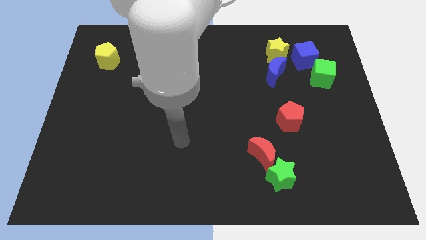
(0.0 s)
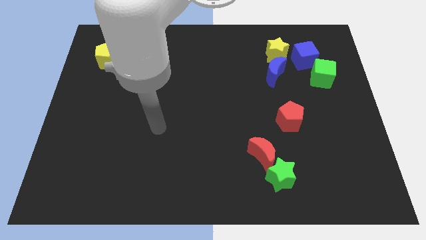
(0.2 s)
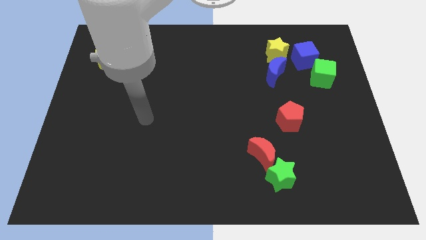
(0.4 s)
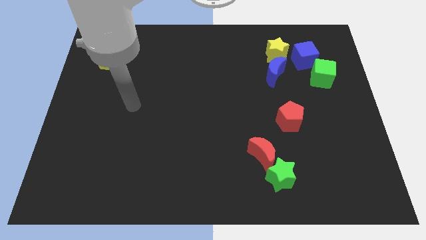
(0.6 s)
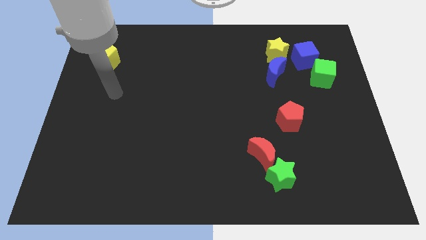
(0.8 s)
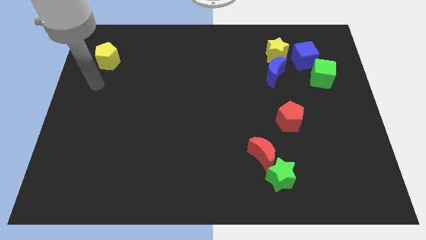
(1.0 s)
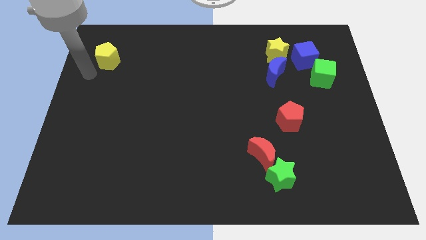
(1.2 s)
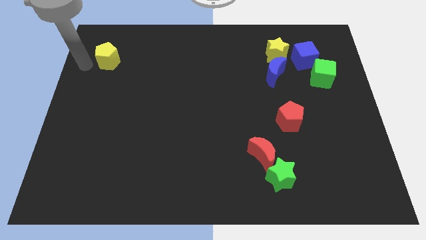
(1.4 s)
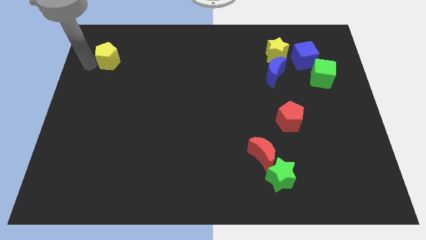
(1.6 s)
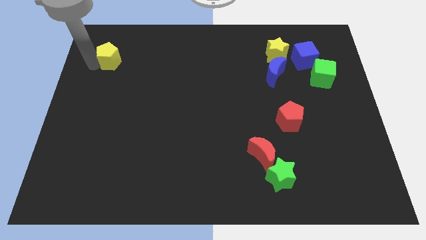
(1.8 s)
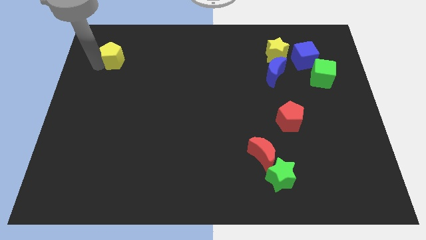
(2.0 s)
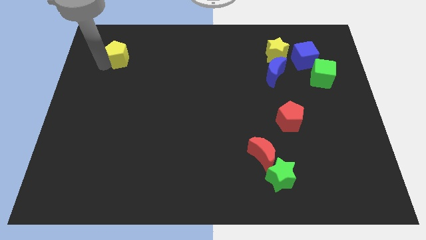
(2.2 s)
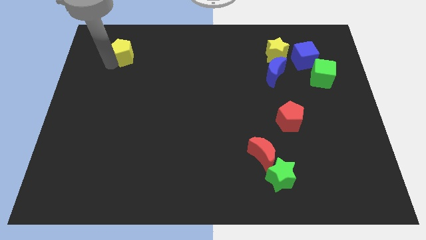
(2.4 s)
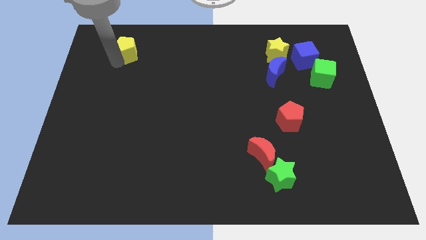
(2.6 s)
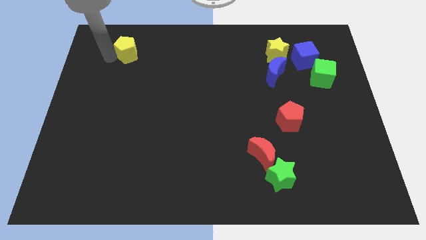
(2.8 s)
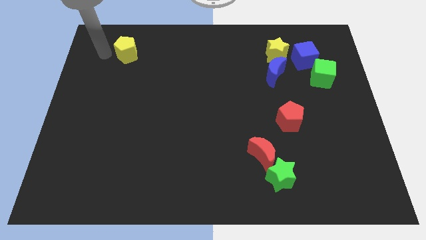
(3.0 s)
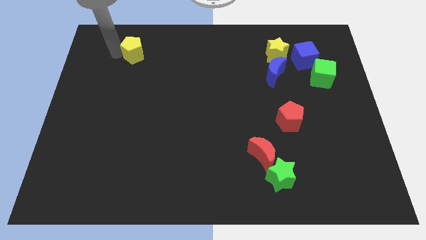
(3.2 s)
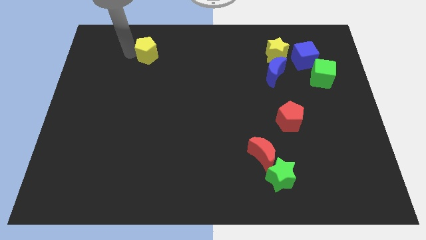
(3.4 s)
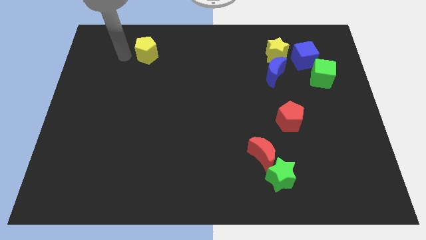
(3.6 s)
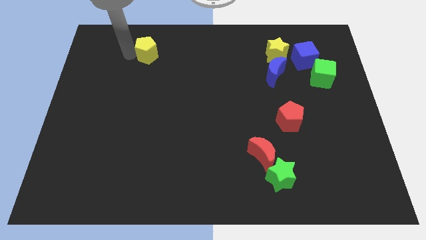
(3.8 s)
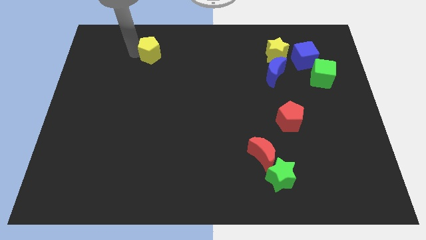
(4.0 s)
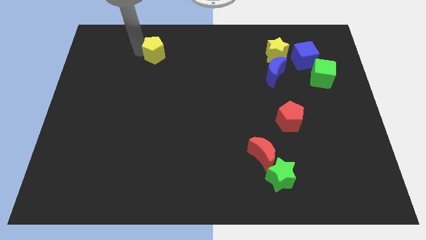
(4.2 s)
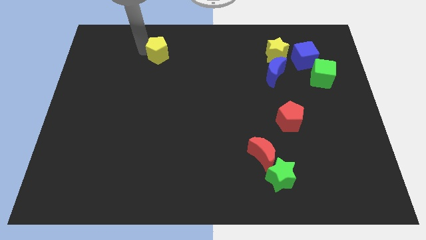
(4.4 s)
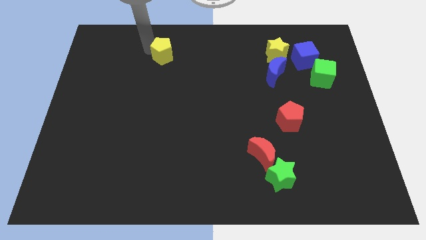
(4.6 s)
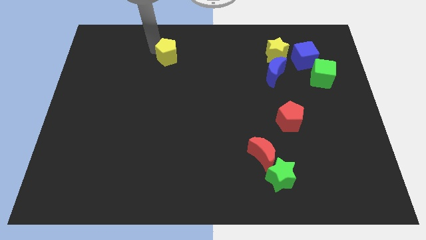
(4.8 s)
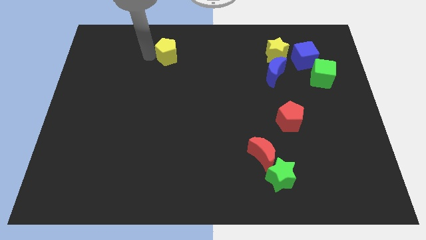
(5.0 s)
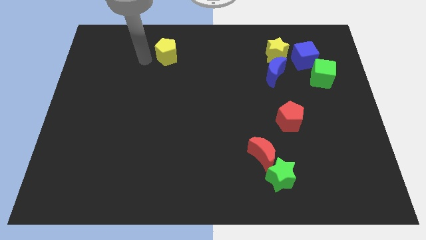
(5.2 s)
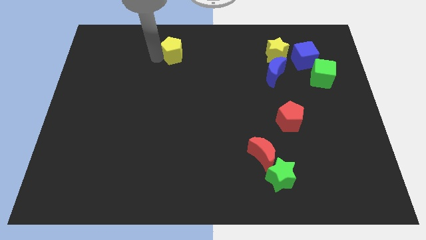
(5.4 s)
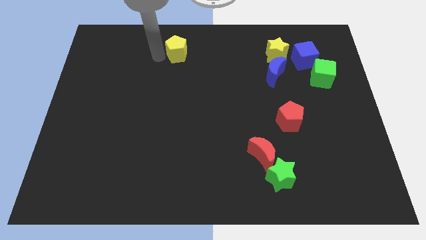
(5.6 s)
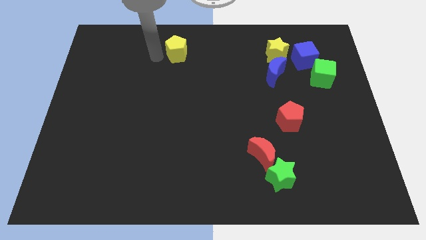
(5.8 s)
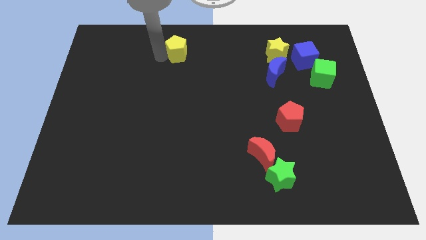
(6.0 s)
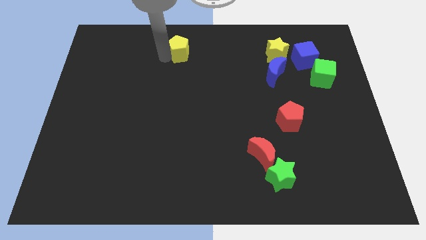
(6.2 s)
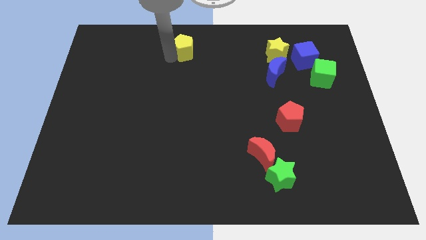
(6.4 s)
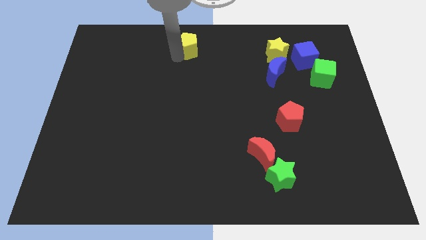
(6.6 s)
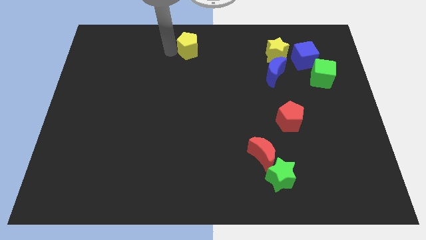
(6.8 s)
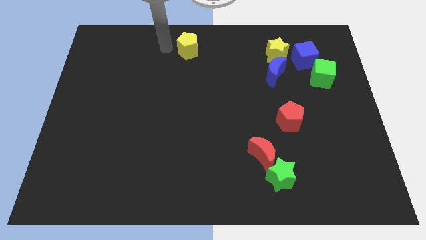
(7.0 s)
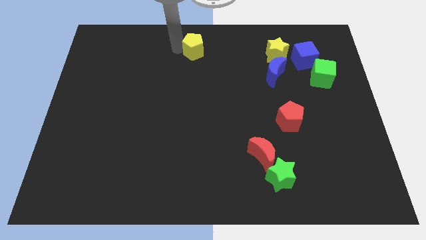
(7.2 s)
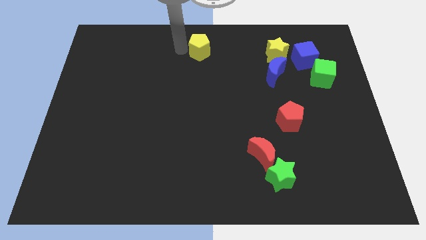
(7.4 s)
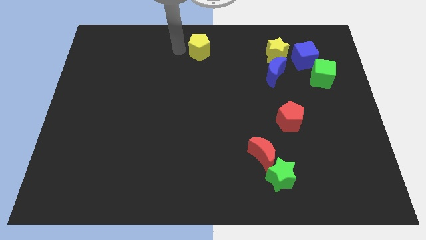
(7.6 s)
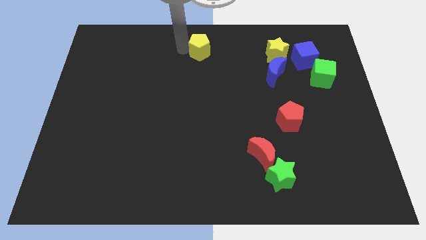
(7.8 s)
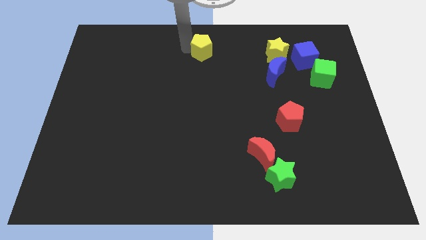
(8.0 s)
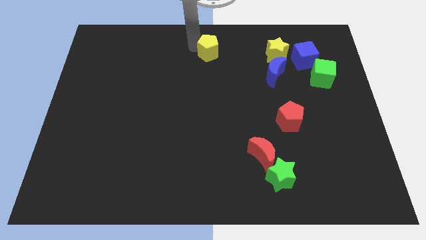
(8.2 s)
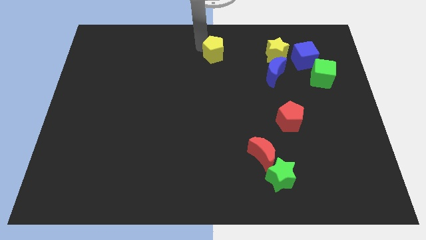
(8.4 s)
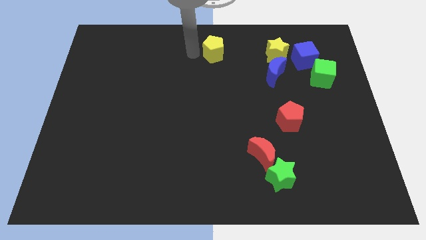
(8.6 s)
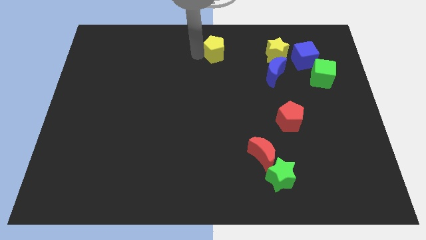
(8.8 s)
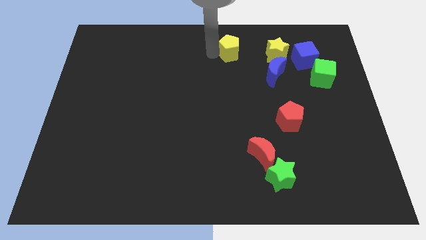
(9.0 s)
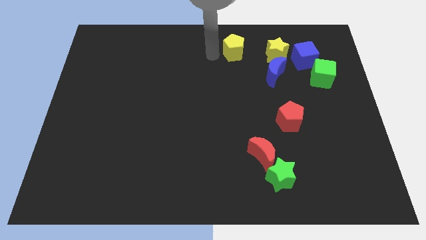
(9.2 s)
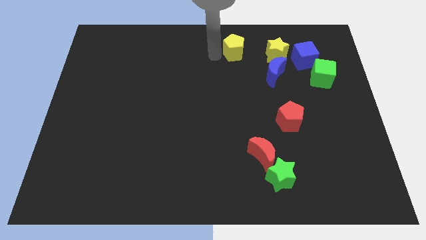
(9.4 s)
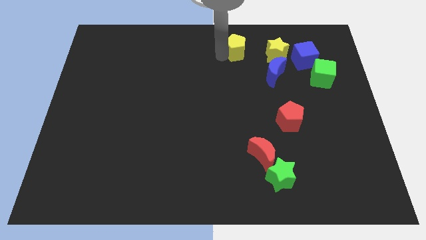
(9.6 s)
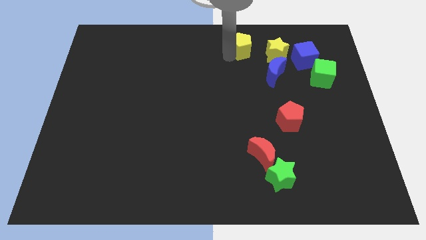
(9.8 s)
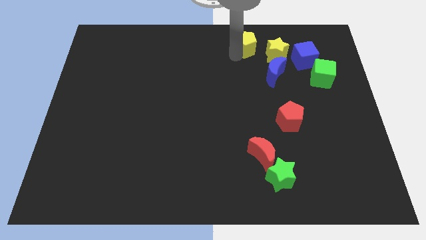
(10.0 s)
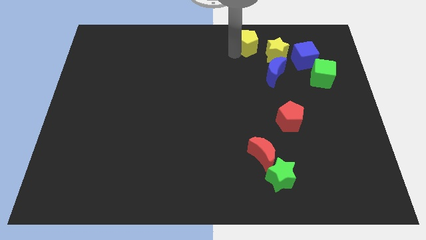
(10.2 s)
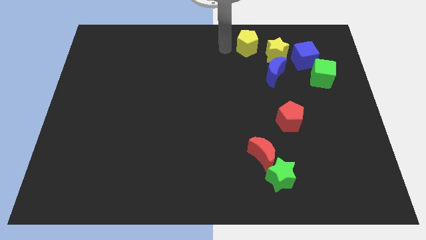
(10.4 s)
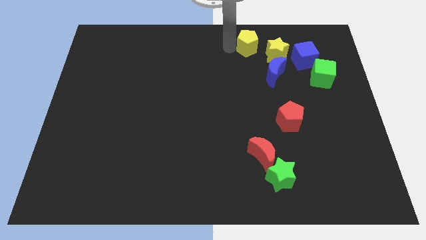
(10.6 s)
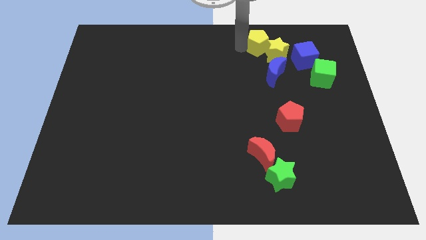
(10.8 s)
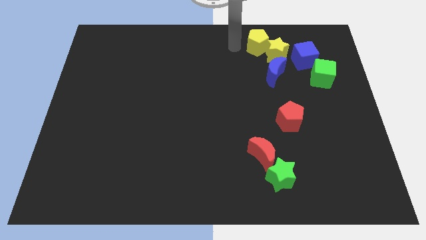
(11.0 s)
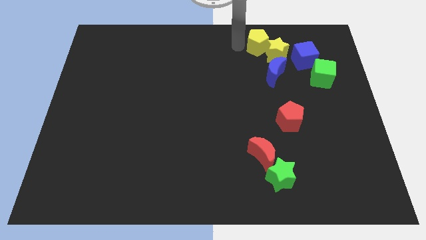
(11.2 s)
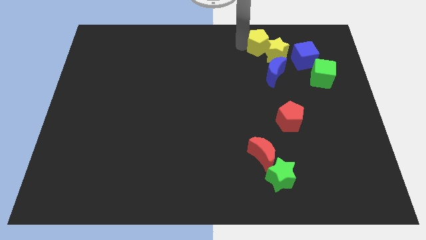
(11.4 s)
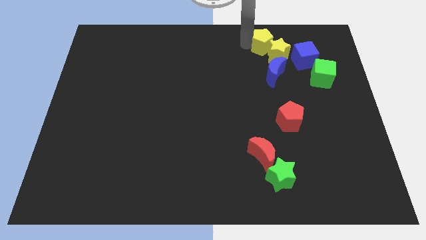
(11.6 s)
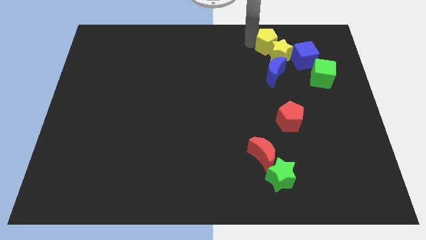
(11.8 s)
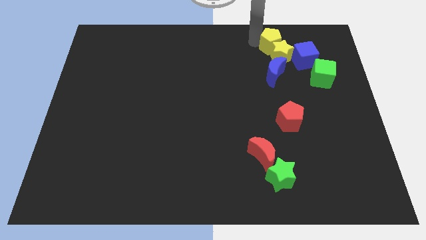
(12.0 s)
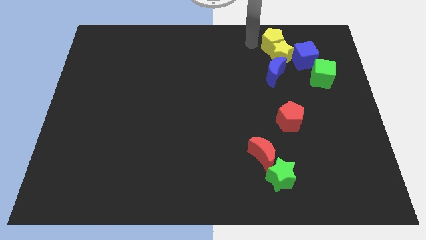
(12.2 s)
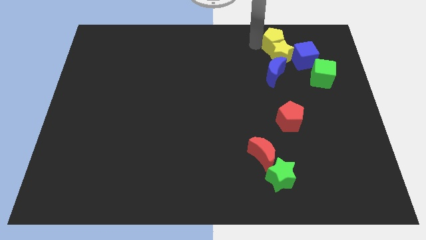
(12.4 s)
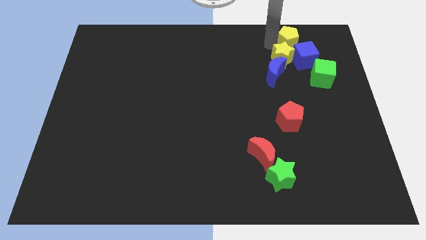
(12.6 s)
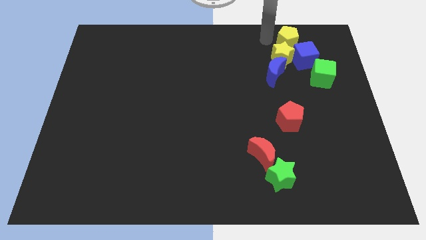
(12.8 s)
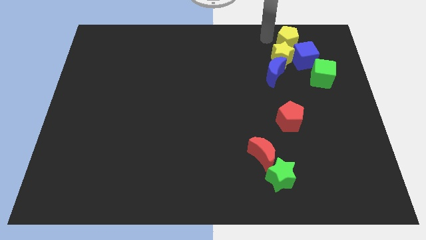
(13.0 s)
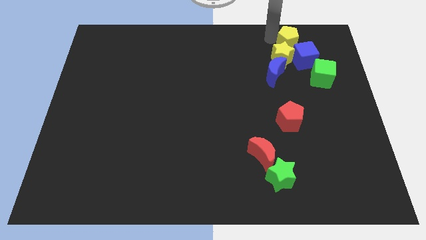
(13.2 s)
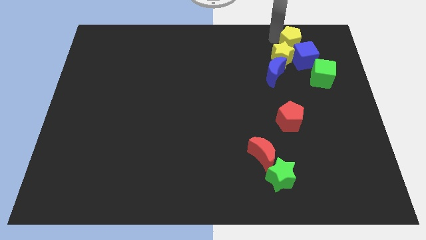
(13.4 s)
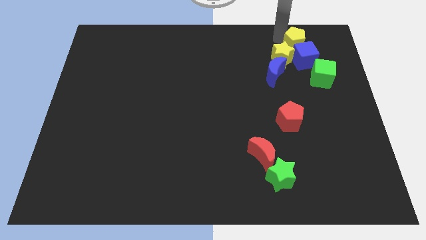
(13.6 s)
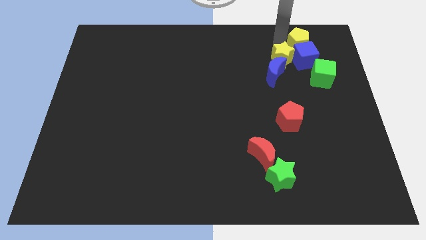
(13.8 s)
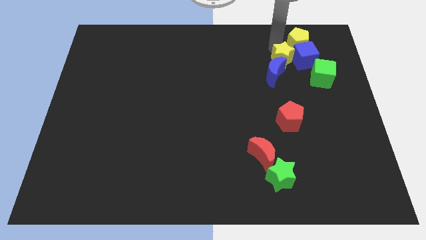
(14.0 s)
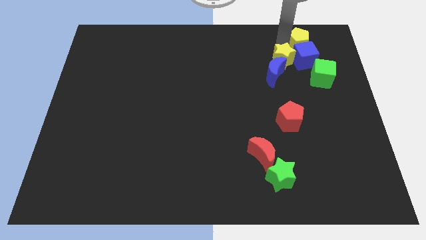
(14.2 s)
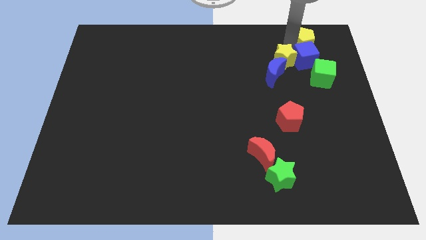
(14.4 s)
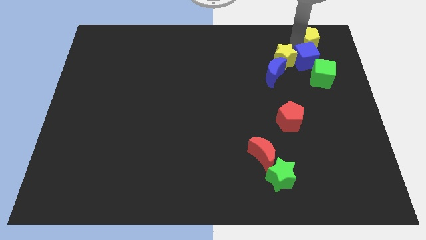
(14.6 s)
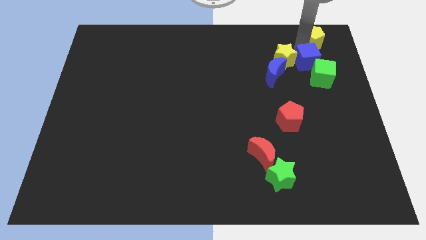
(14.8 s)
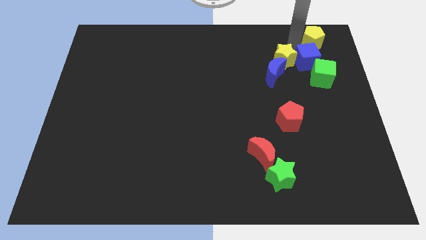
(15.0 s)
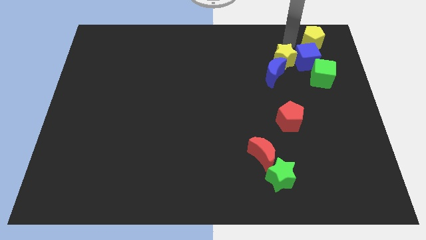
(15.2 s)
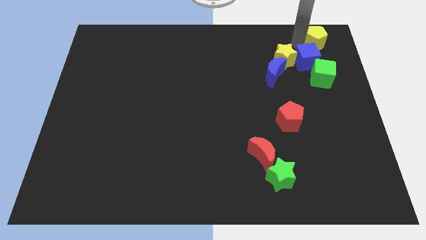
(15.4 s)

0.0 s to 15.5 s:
push the yellow pentagon to the top right
